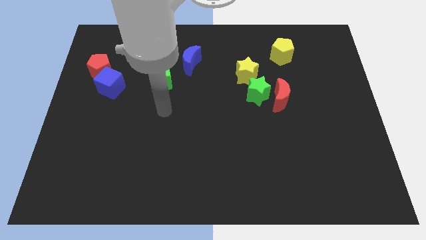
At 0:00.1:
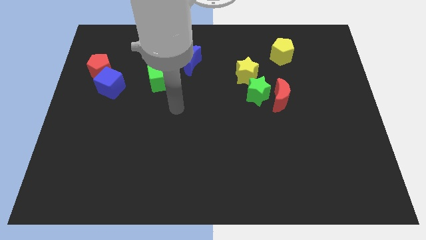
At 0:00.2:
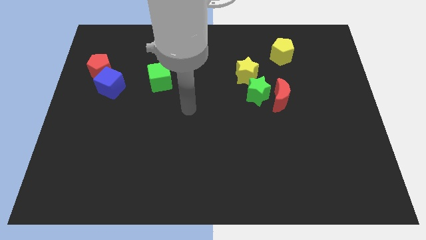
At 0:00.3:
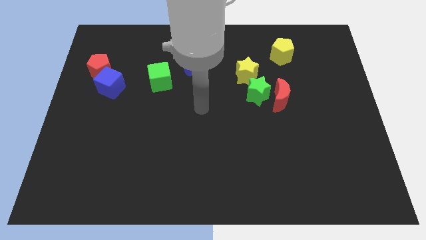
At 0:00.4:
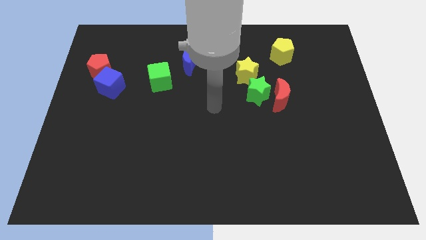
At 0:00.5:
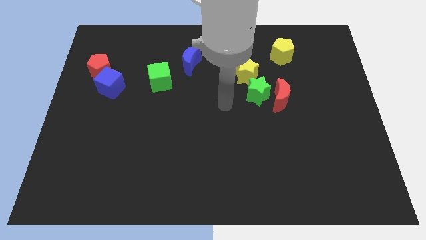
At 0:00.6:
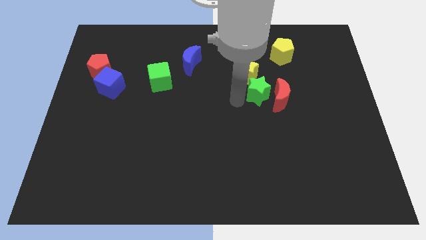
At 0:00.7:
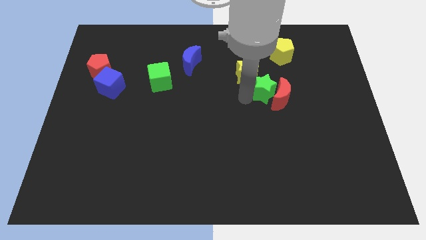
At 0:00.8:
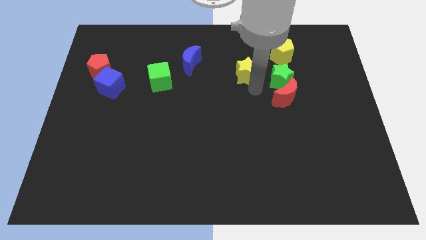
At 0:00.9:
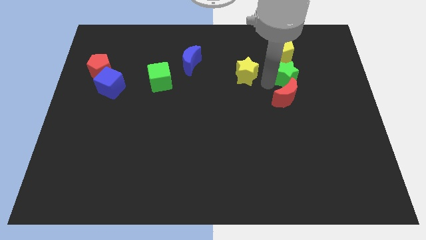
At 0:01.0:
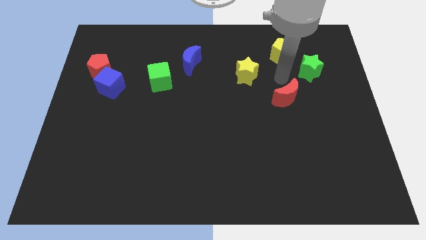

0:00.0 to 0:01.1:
separate the red moon from the green star

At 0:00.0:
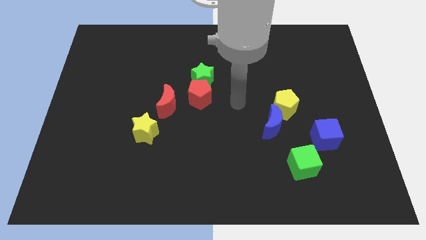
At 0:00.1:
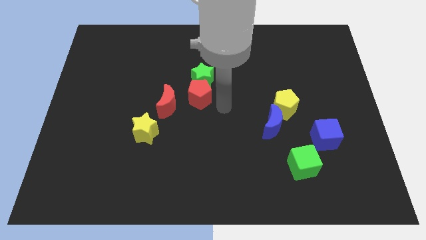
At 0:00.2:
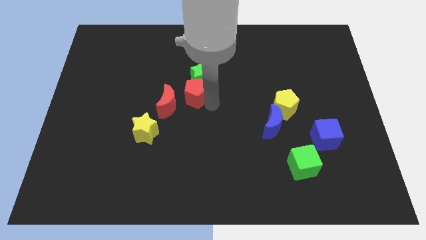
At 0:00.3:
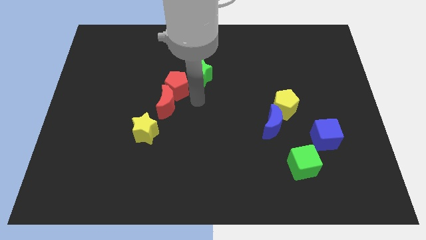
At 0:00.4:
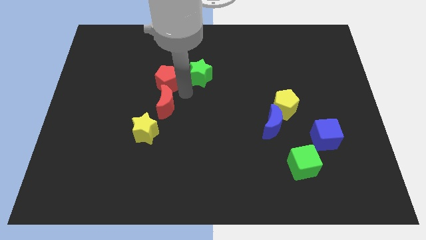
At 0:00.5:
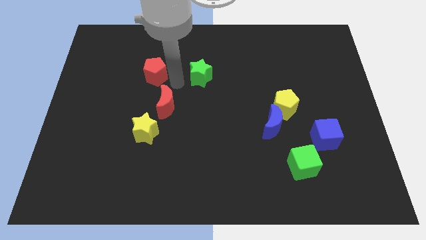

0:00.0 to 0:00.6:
move the green star away from the red pentagon

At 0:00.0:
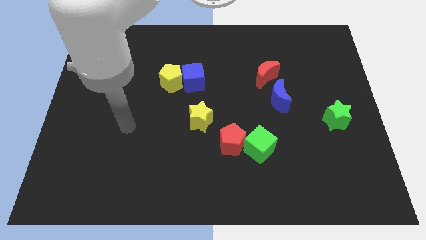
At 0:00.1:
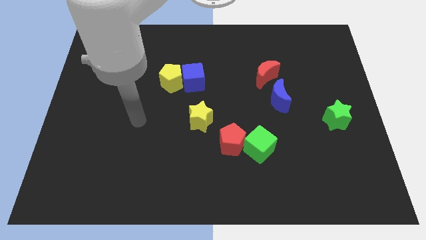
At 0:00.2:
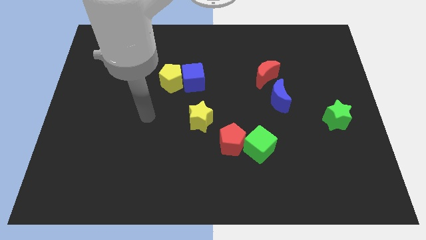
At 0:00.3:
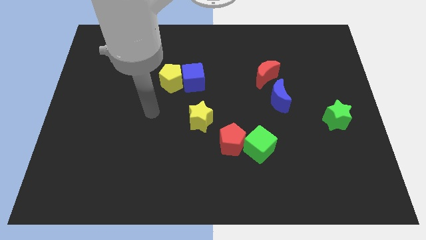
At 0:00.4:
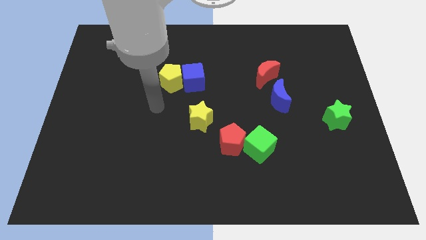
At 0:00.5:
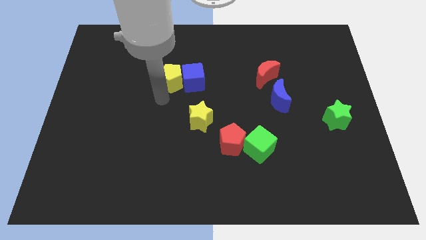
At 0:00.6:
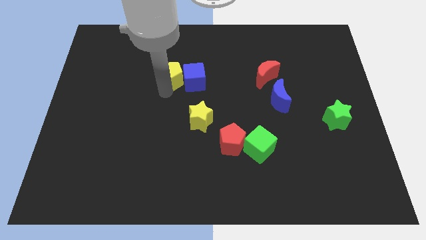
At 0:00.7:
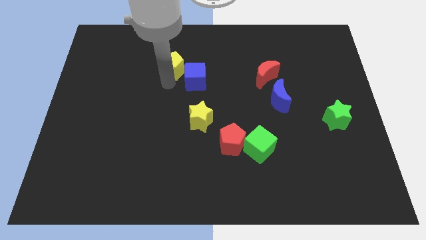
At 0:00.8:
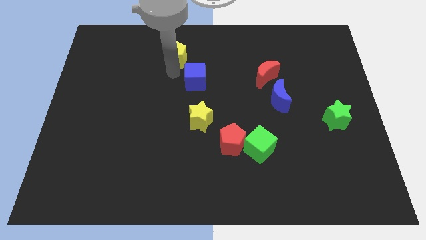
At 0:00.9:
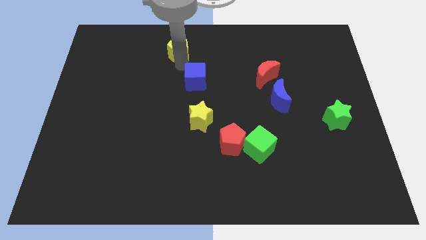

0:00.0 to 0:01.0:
move the blue cube away from the yellow pentagon

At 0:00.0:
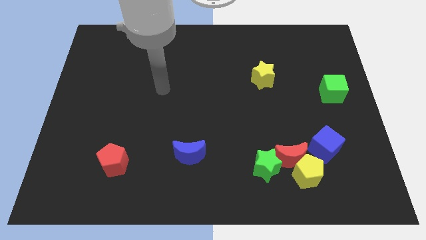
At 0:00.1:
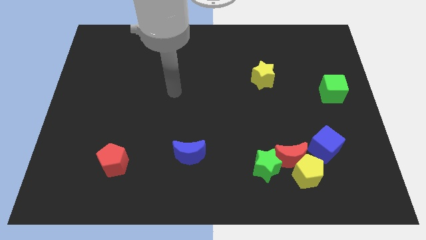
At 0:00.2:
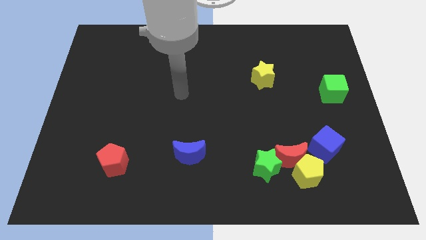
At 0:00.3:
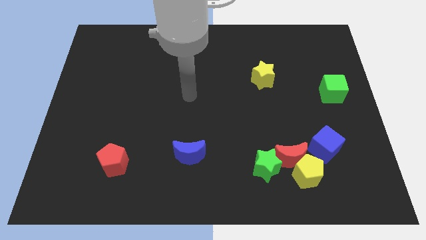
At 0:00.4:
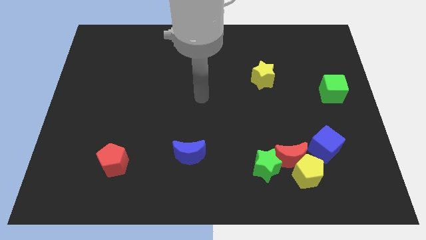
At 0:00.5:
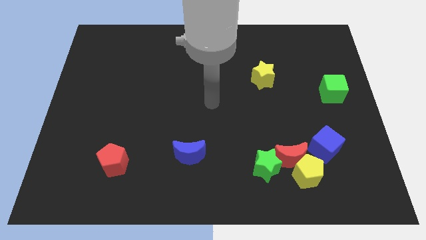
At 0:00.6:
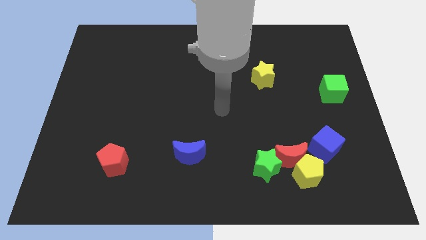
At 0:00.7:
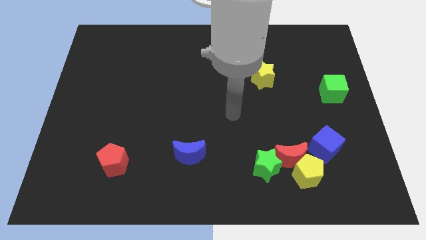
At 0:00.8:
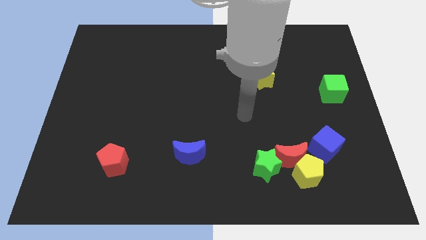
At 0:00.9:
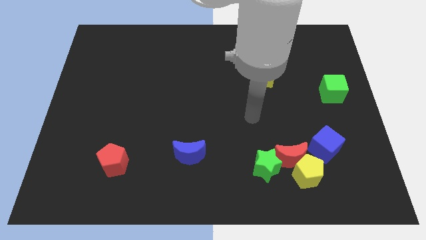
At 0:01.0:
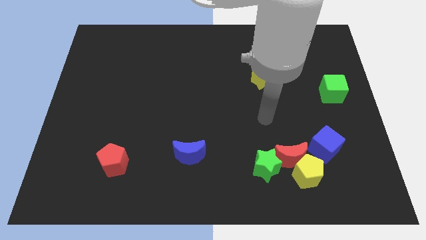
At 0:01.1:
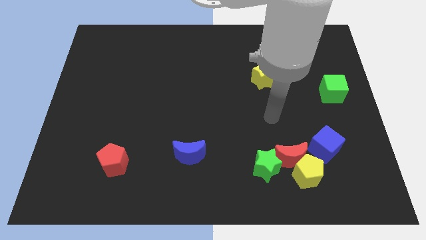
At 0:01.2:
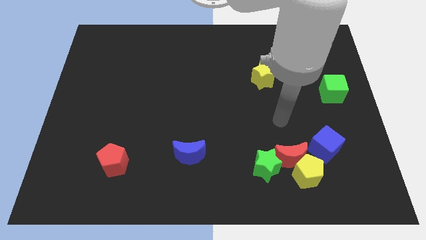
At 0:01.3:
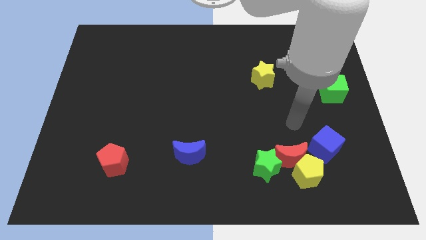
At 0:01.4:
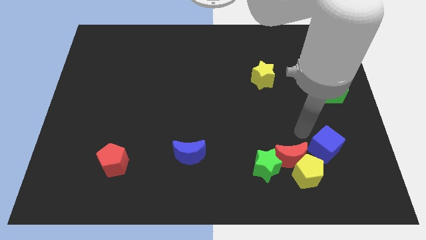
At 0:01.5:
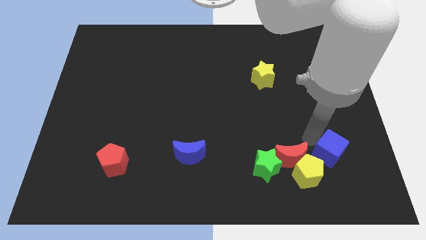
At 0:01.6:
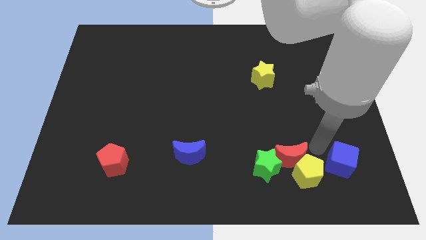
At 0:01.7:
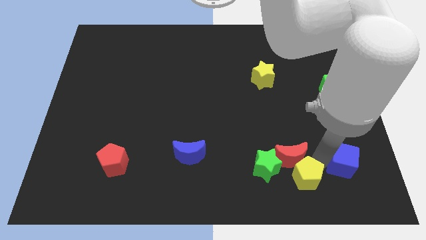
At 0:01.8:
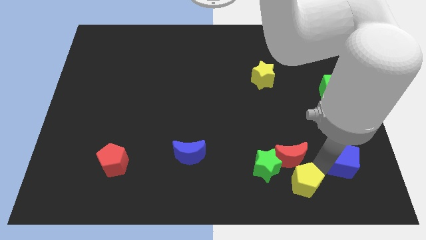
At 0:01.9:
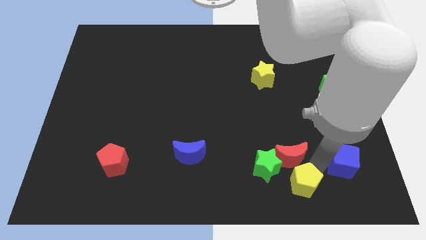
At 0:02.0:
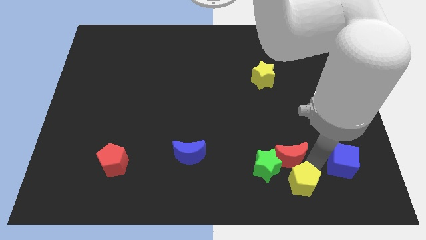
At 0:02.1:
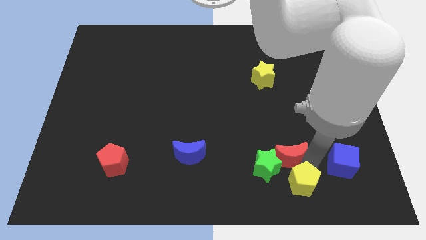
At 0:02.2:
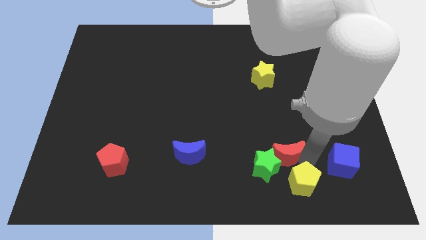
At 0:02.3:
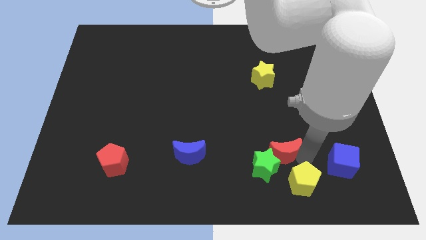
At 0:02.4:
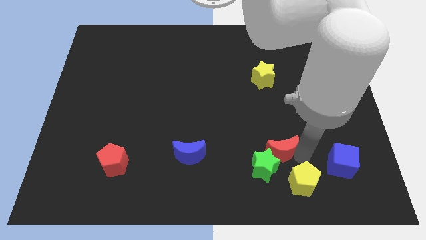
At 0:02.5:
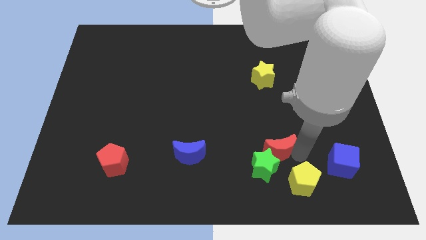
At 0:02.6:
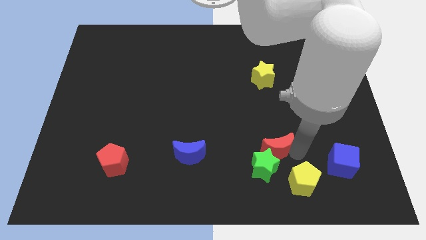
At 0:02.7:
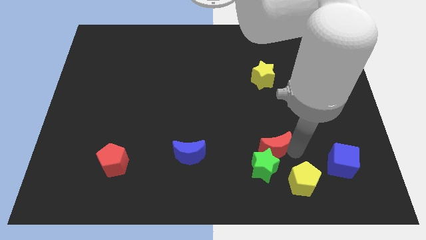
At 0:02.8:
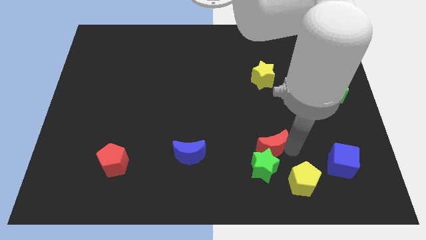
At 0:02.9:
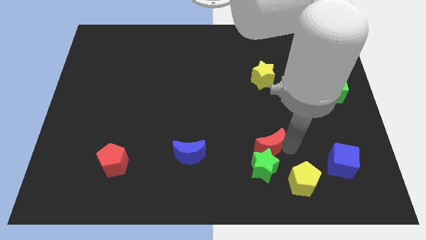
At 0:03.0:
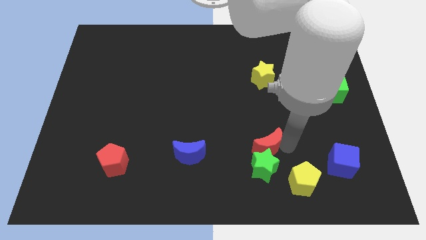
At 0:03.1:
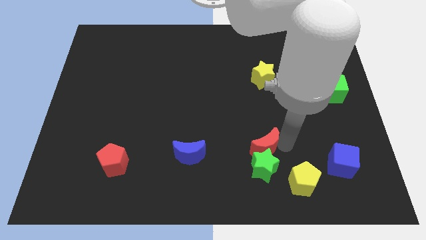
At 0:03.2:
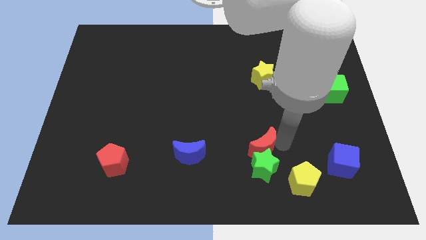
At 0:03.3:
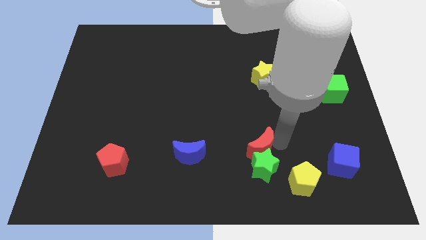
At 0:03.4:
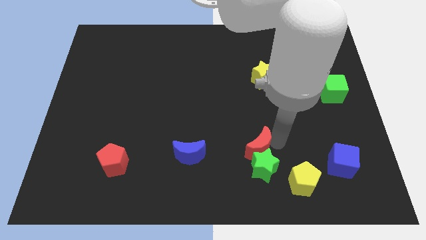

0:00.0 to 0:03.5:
separate the red moon from the yellow pentagon, green star, and blue cube

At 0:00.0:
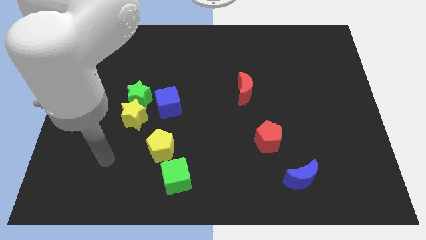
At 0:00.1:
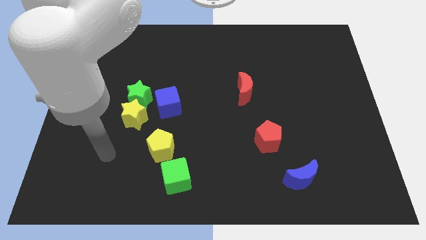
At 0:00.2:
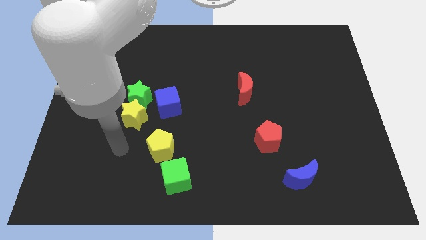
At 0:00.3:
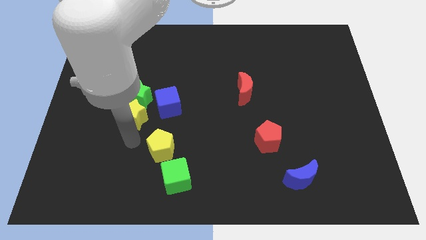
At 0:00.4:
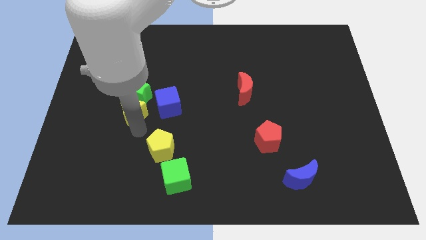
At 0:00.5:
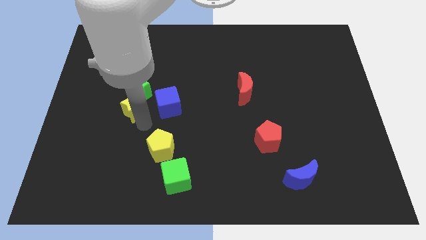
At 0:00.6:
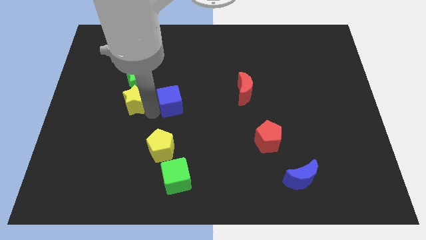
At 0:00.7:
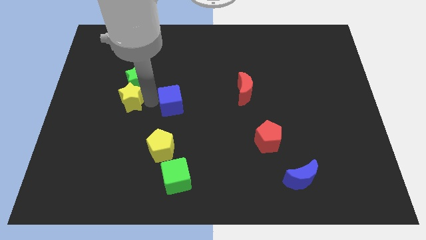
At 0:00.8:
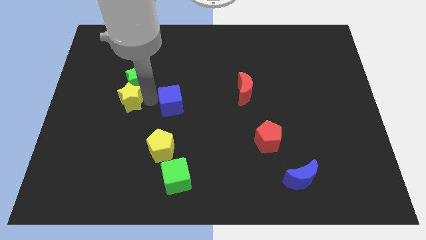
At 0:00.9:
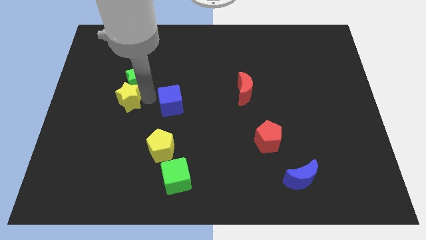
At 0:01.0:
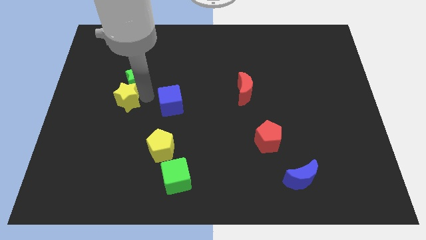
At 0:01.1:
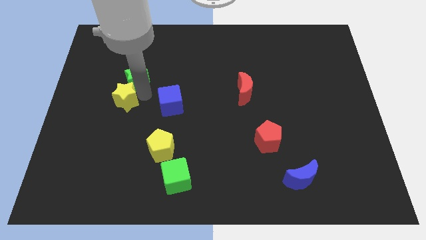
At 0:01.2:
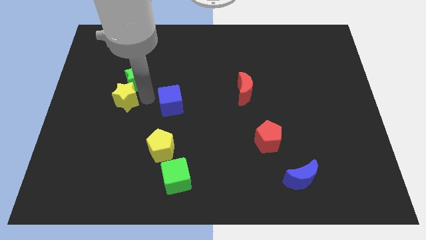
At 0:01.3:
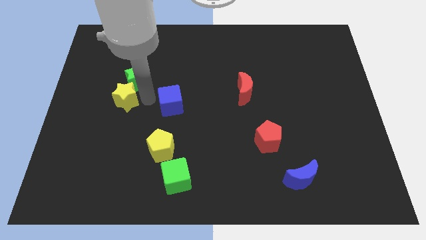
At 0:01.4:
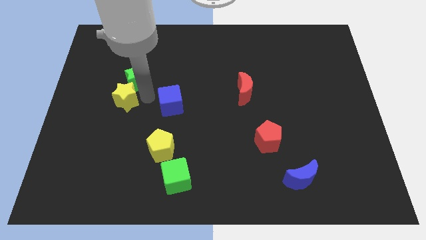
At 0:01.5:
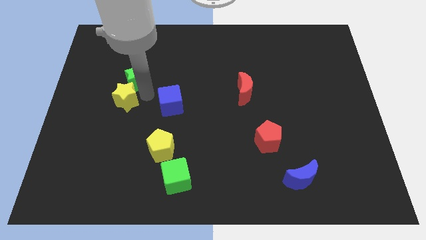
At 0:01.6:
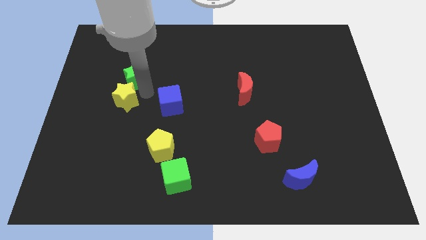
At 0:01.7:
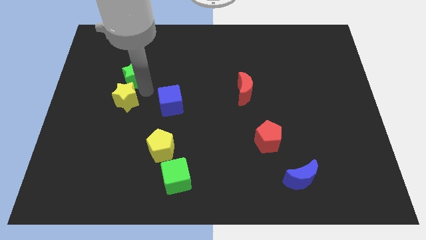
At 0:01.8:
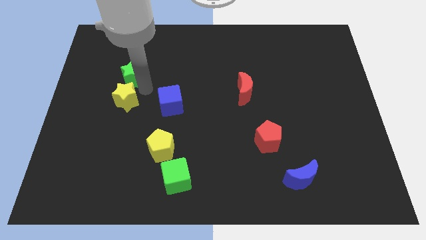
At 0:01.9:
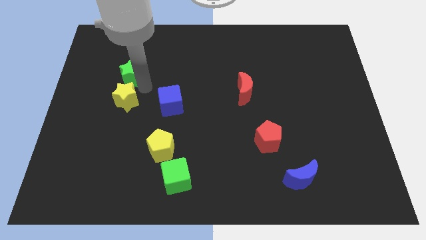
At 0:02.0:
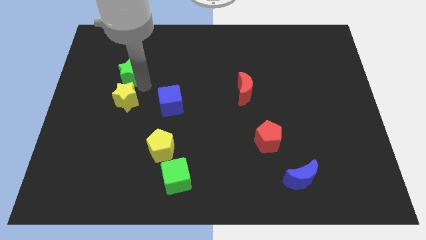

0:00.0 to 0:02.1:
separate the green star from the yellow star and blue cube

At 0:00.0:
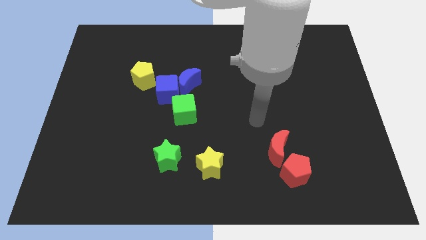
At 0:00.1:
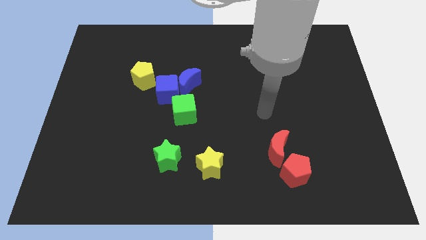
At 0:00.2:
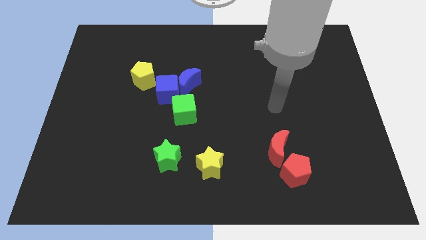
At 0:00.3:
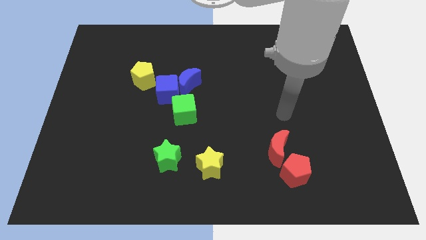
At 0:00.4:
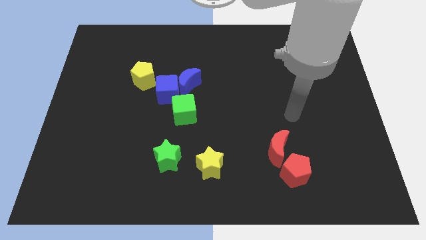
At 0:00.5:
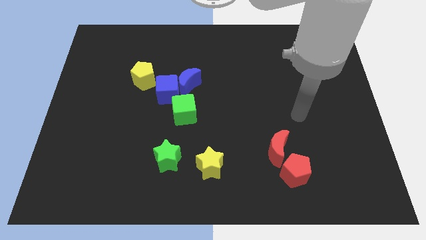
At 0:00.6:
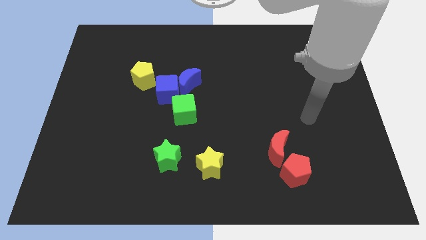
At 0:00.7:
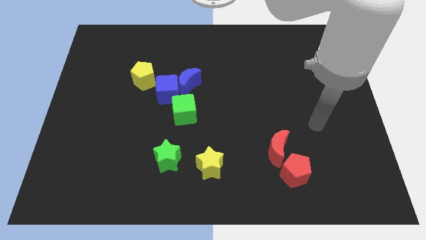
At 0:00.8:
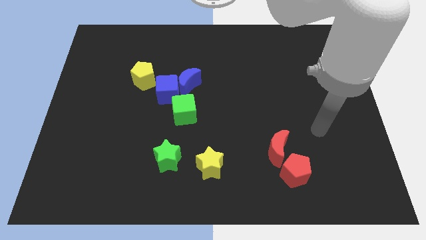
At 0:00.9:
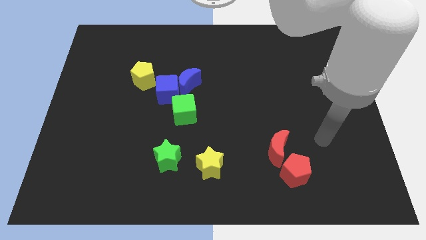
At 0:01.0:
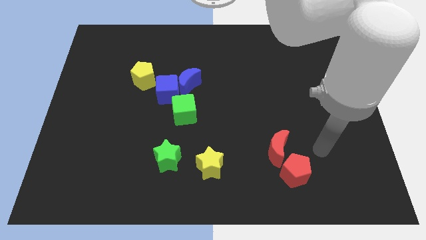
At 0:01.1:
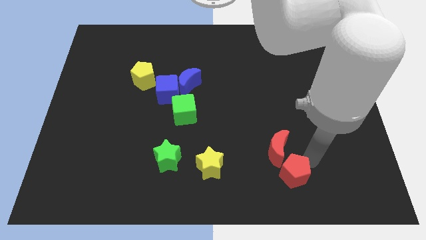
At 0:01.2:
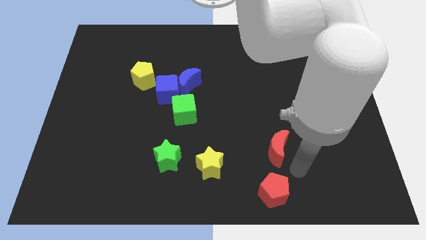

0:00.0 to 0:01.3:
pull the red moon apart from the red pentagon
